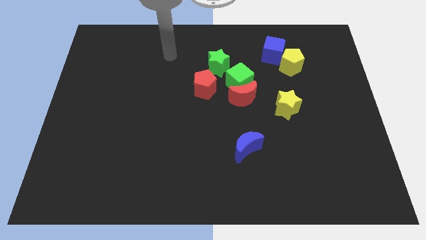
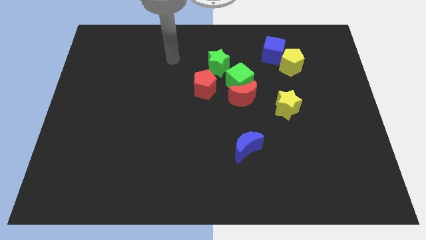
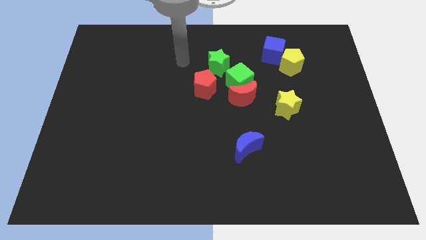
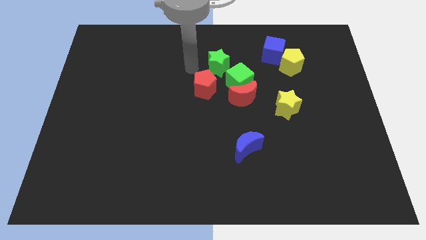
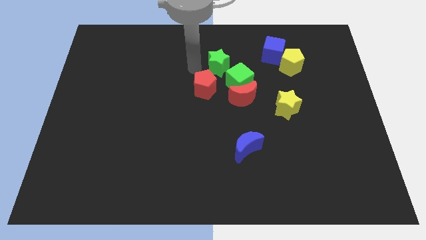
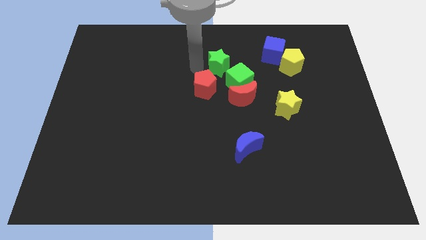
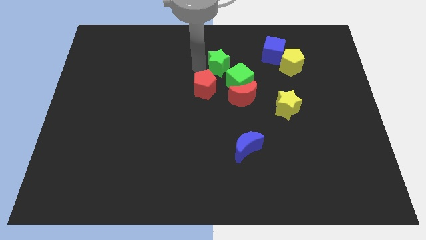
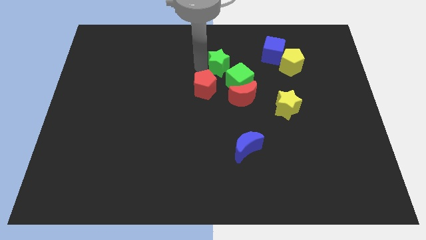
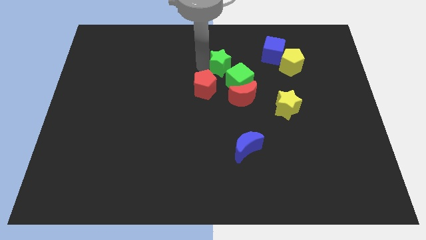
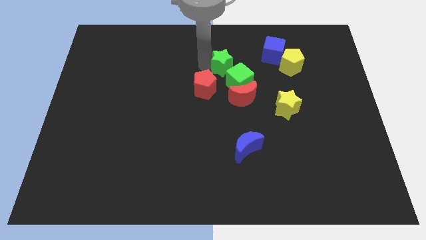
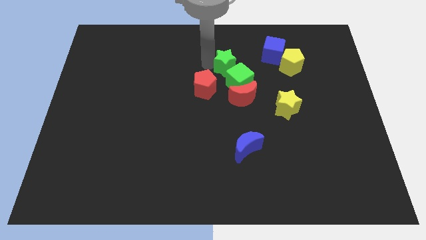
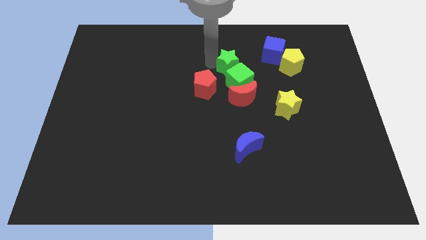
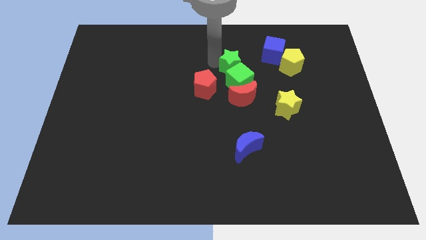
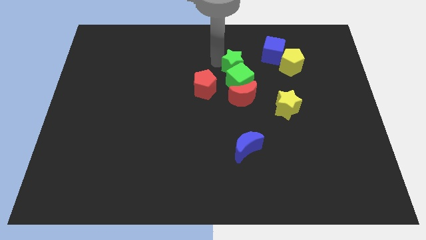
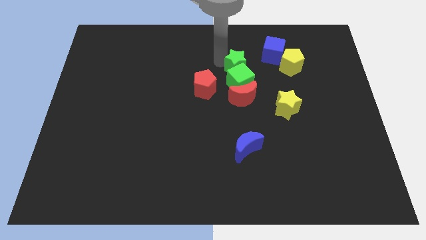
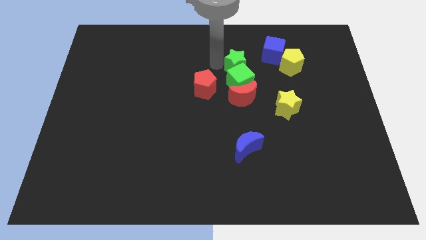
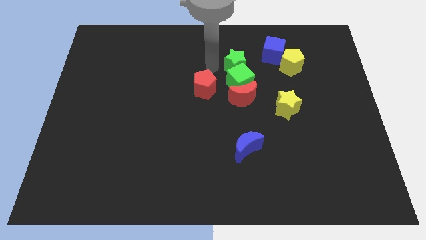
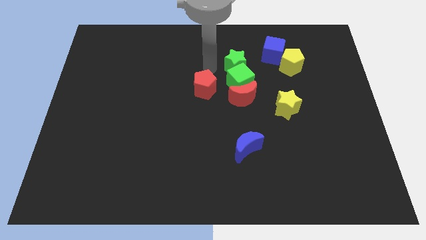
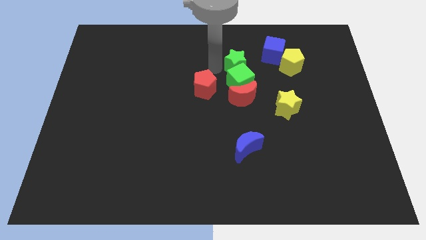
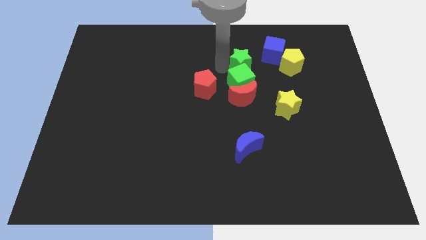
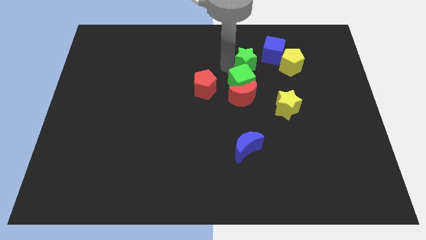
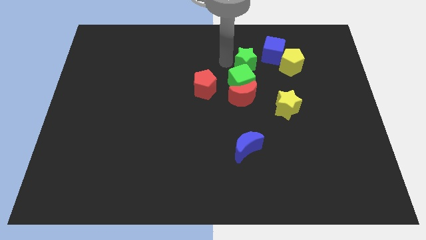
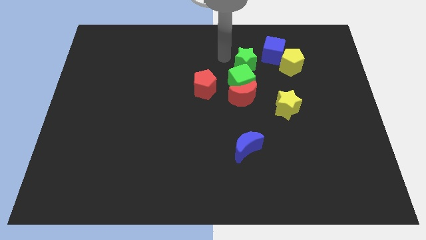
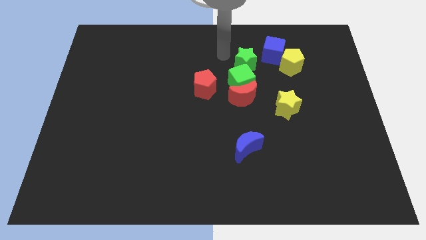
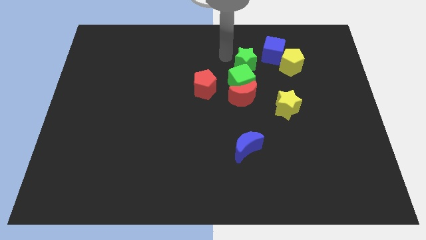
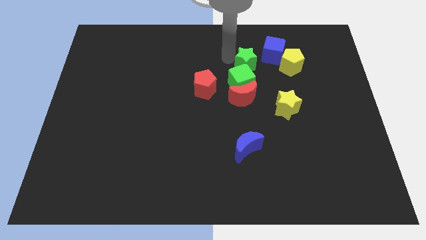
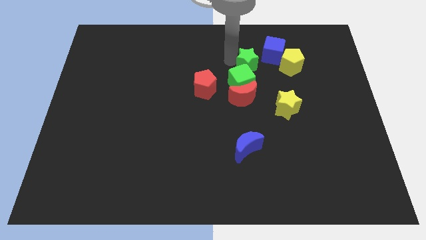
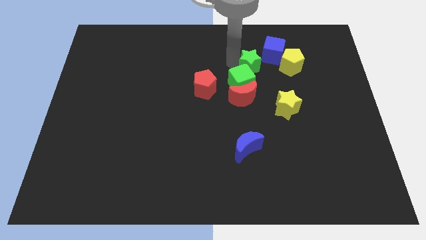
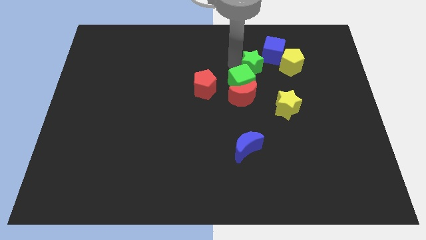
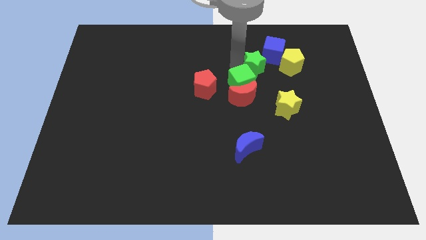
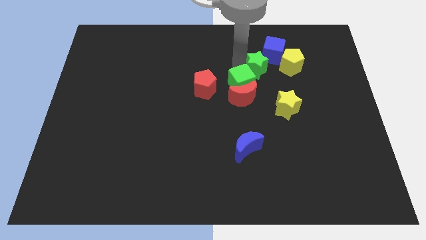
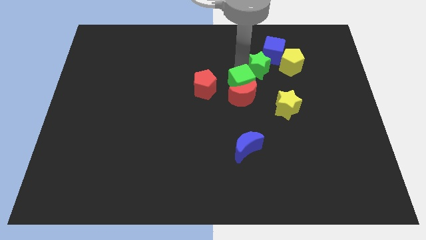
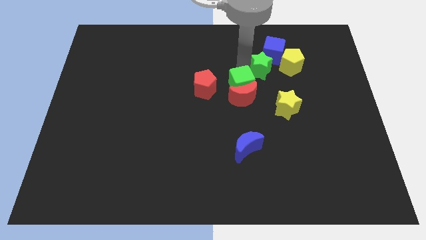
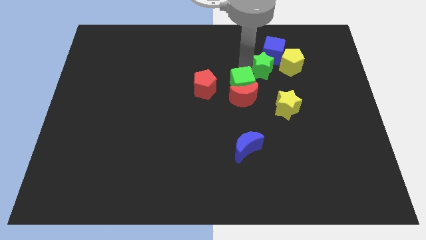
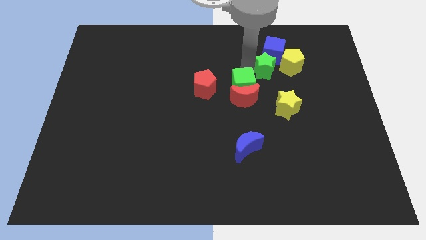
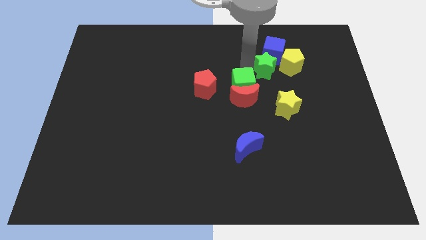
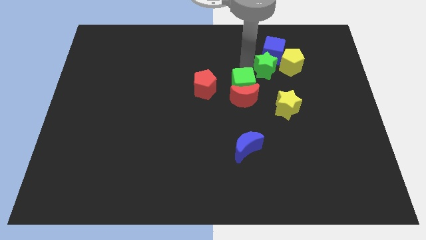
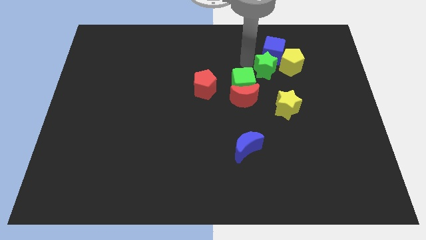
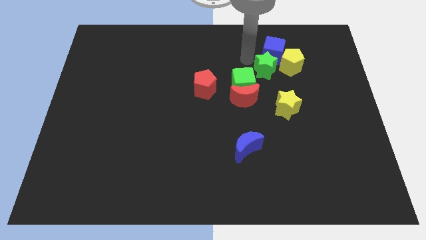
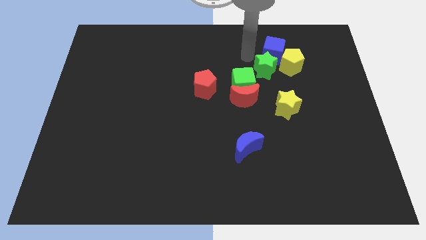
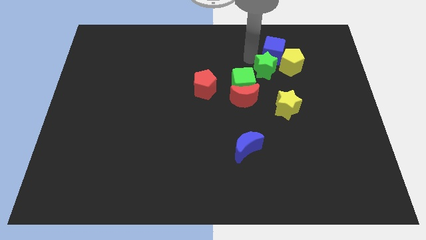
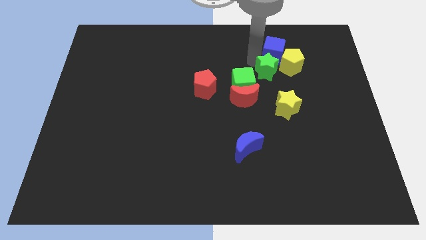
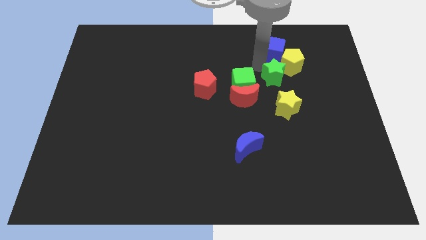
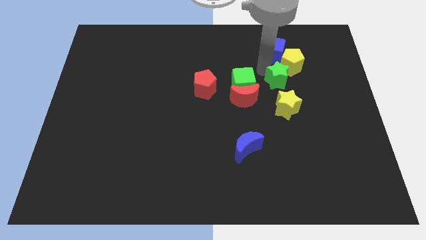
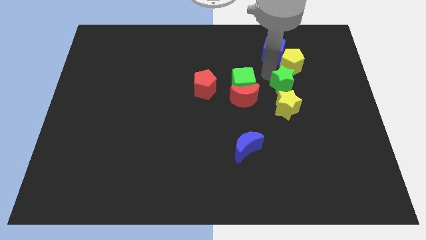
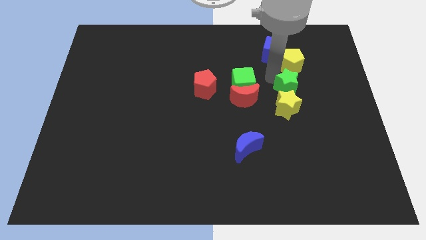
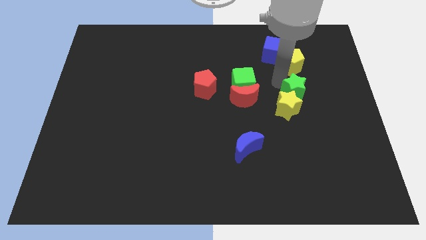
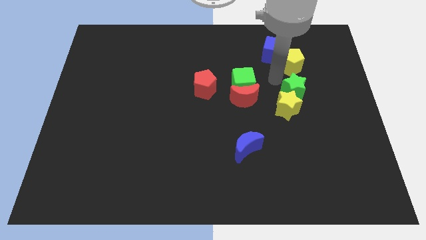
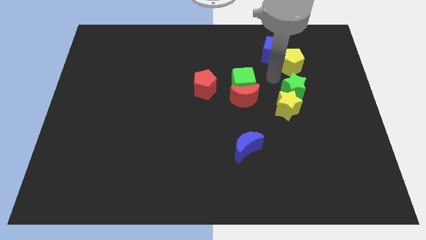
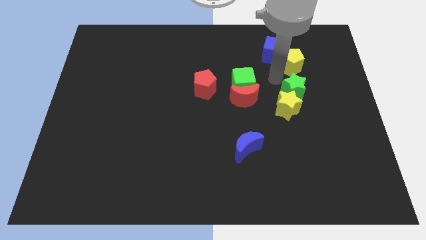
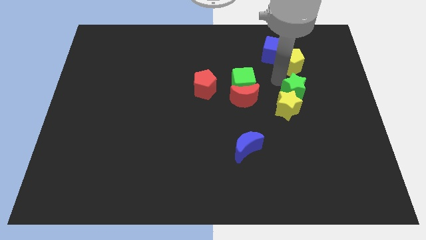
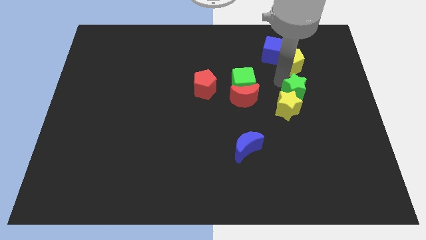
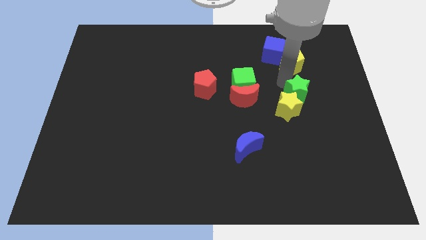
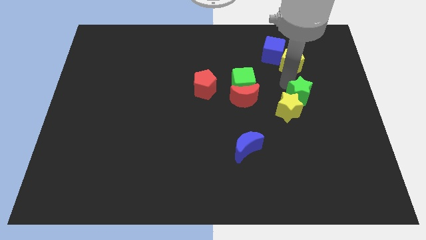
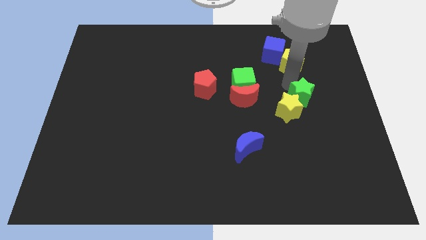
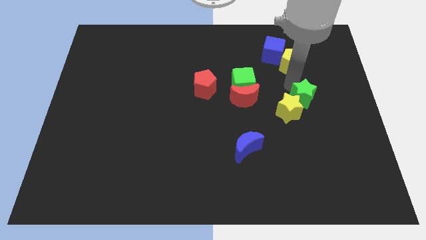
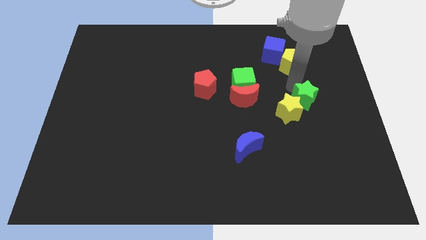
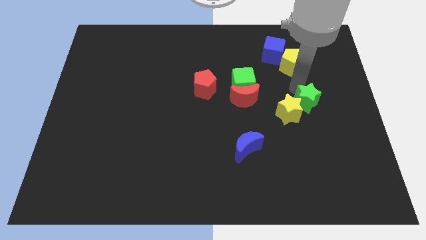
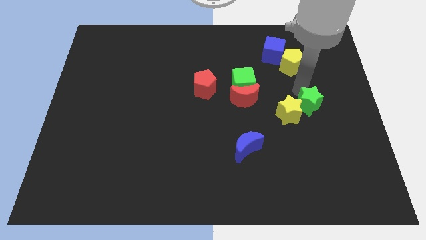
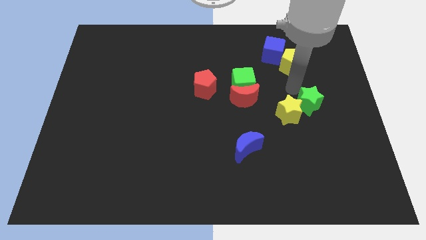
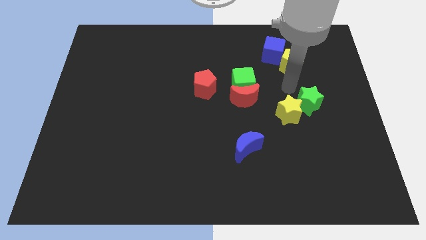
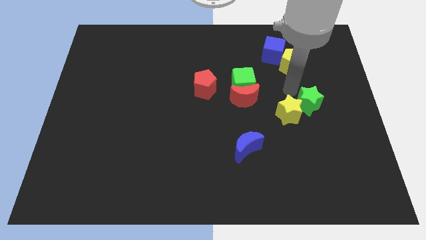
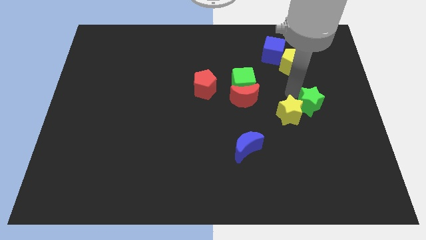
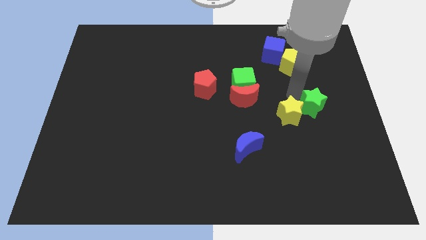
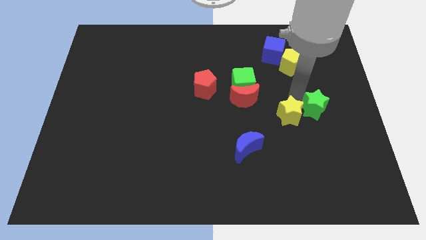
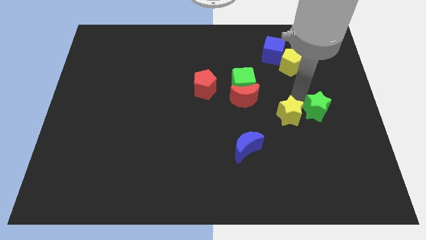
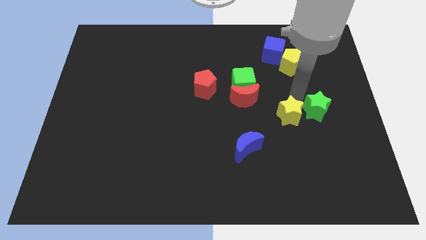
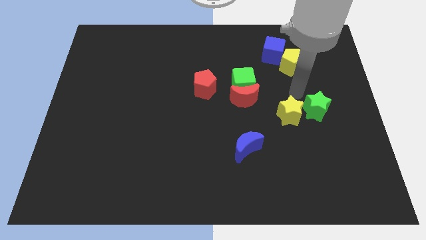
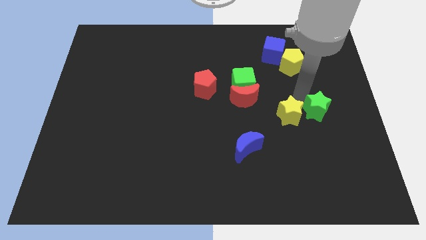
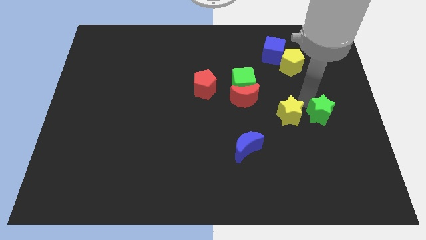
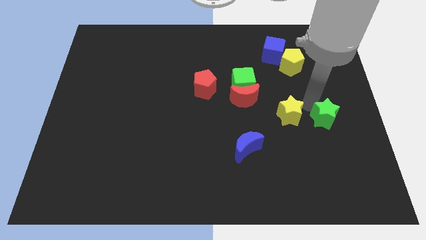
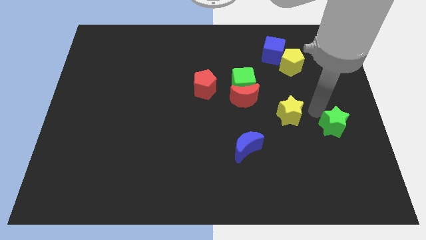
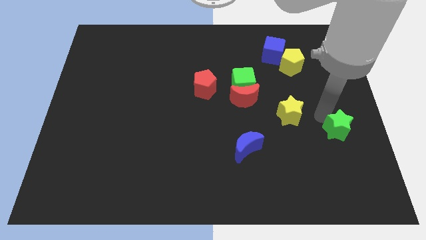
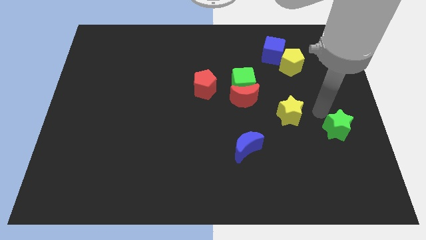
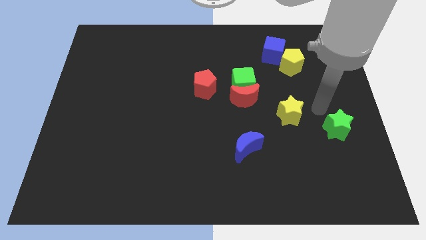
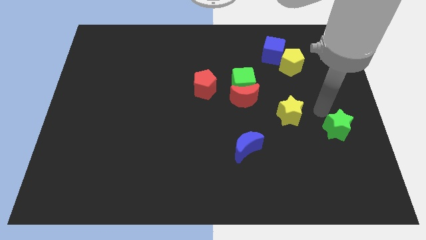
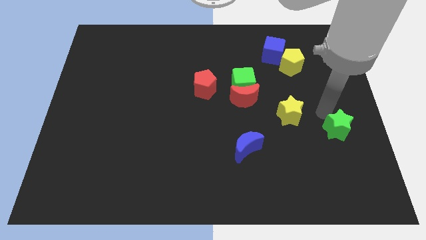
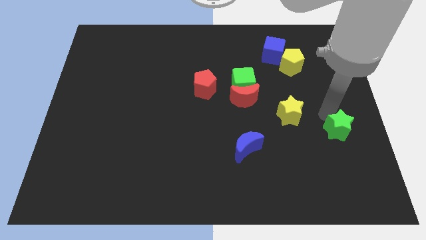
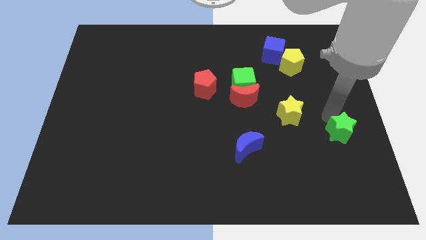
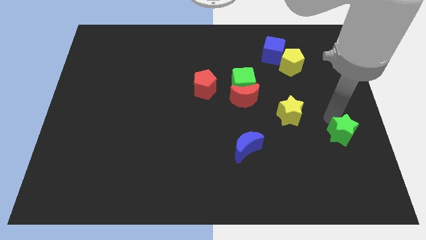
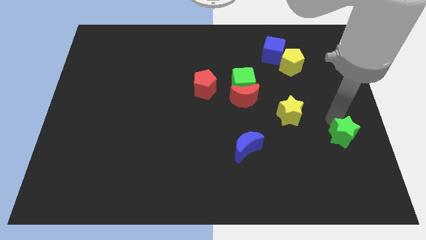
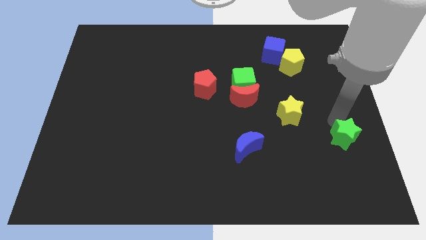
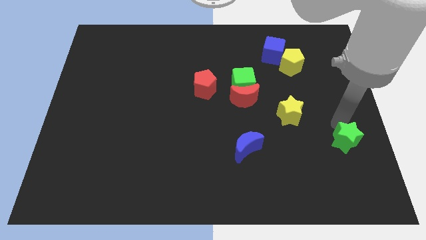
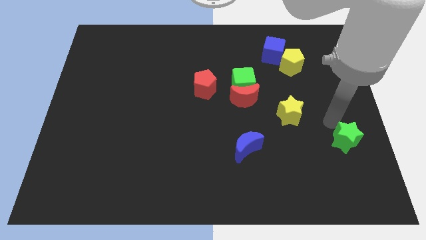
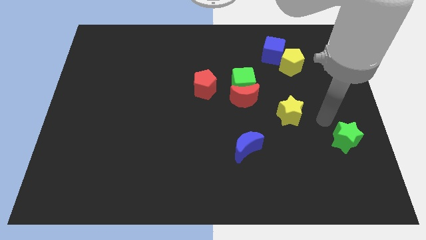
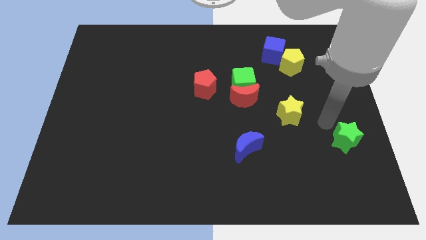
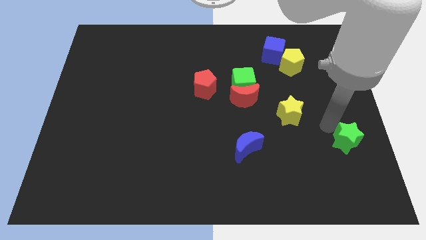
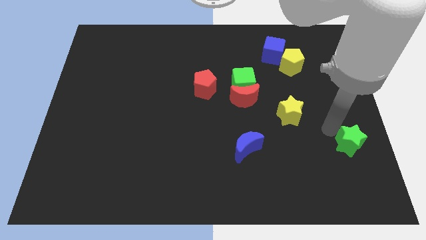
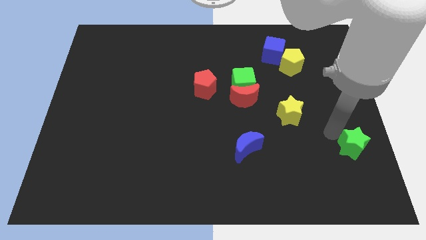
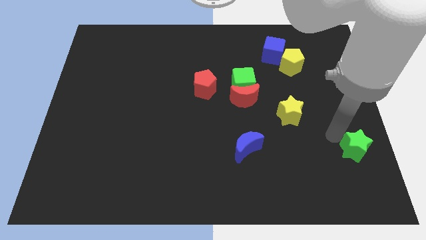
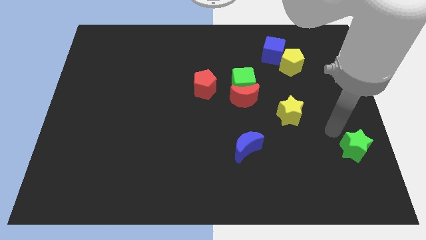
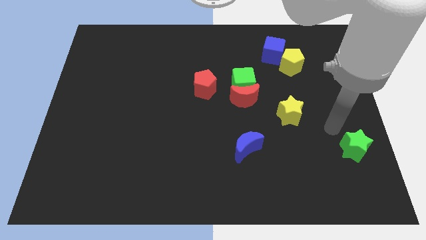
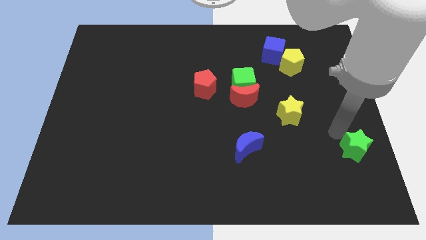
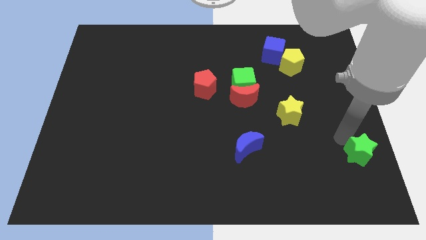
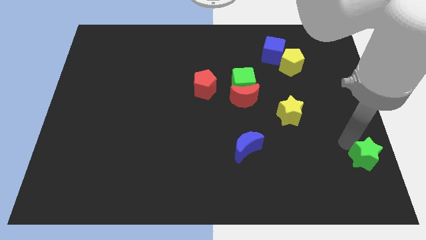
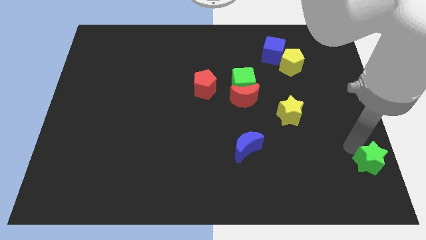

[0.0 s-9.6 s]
push the green star to the bottom right corner
